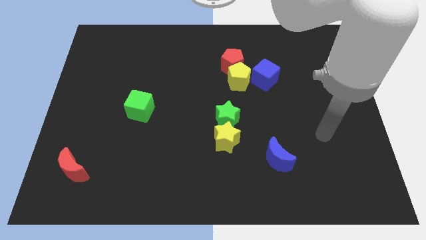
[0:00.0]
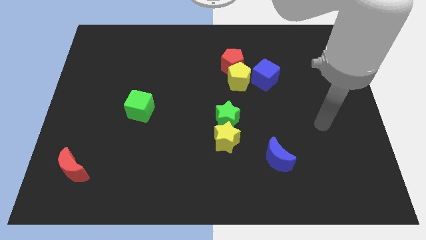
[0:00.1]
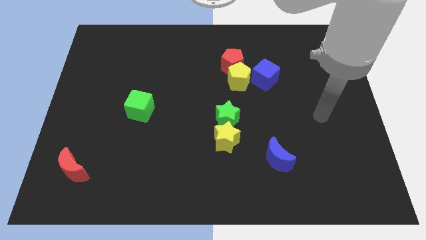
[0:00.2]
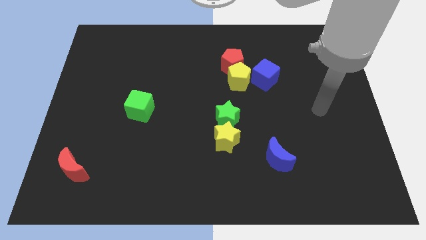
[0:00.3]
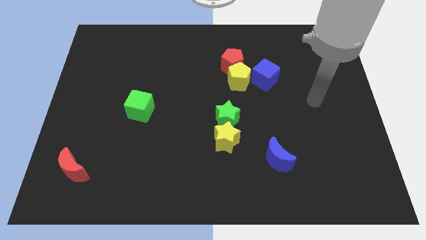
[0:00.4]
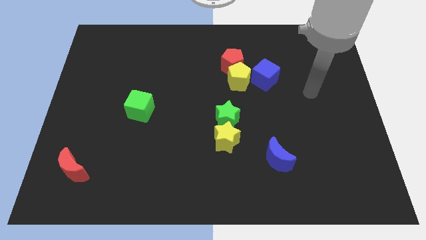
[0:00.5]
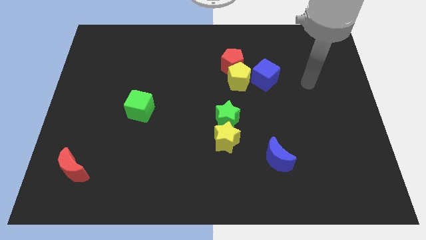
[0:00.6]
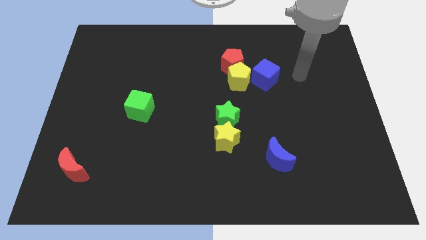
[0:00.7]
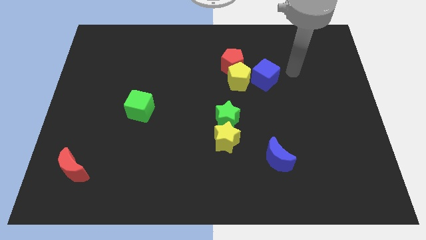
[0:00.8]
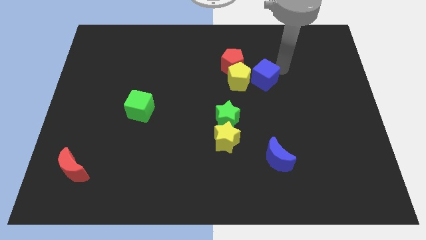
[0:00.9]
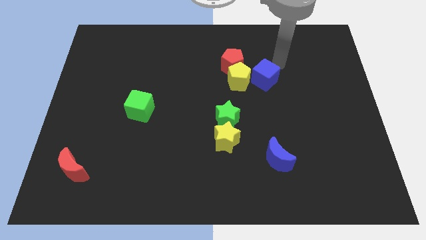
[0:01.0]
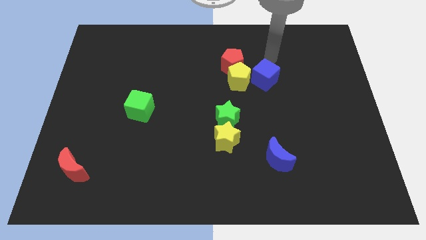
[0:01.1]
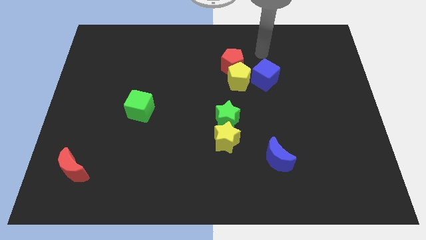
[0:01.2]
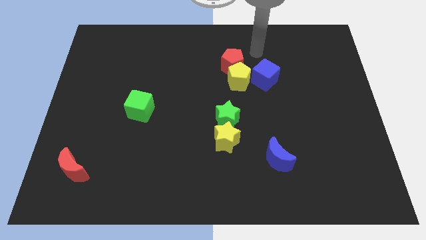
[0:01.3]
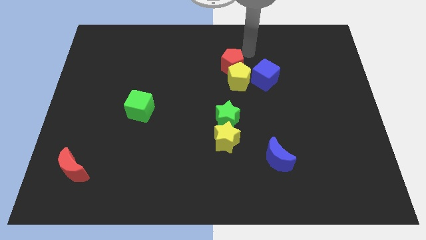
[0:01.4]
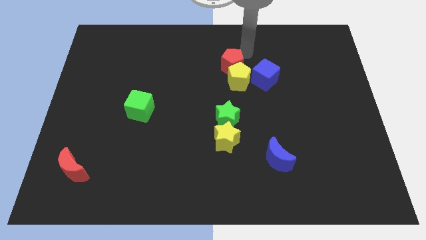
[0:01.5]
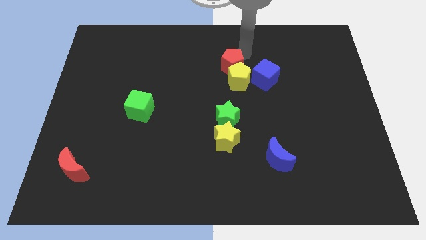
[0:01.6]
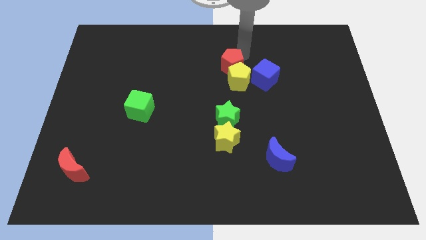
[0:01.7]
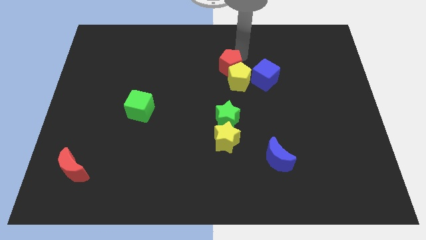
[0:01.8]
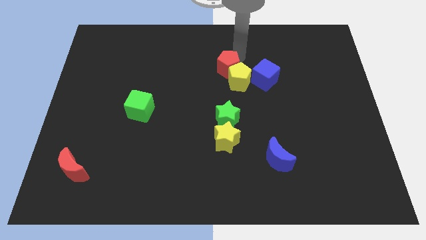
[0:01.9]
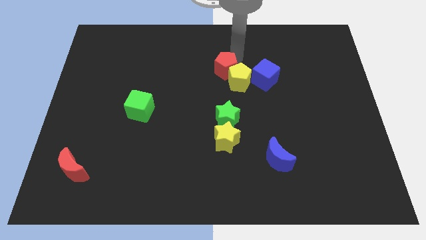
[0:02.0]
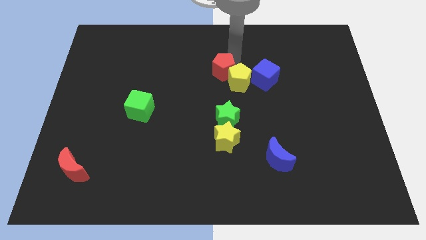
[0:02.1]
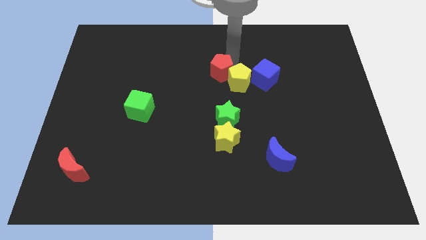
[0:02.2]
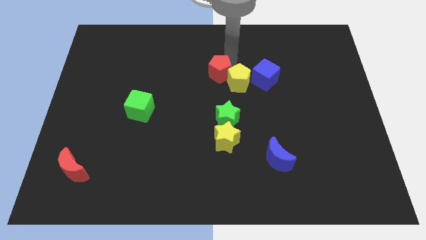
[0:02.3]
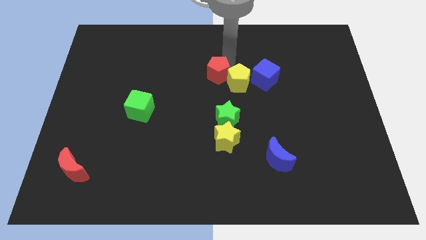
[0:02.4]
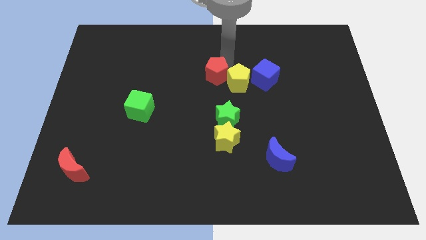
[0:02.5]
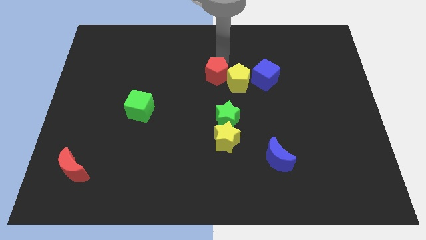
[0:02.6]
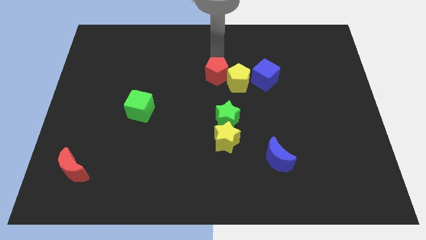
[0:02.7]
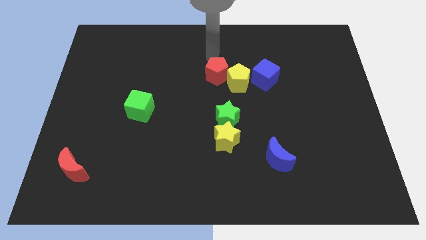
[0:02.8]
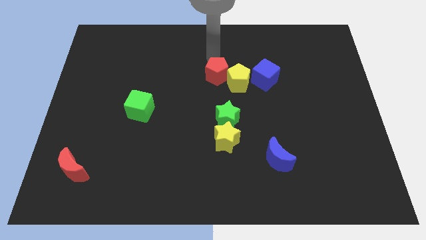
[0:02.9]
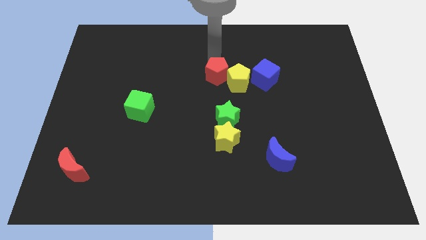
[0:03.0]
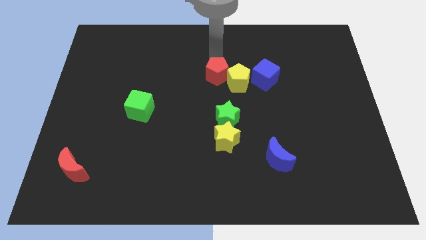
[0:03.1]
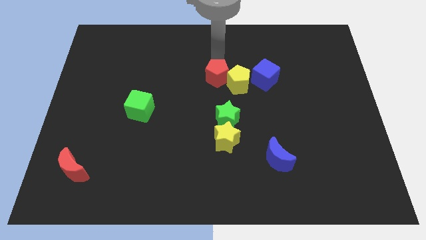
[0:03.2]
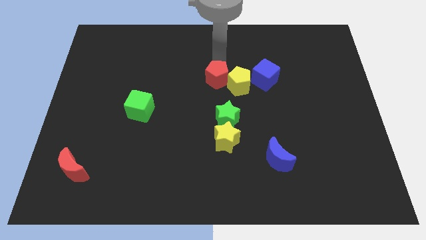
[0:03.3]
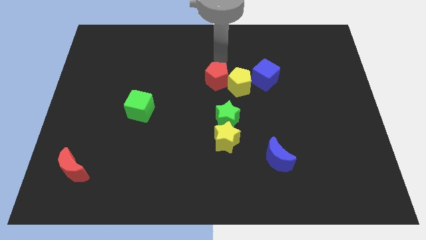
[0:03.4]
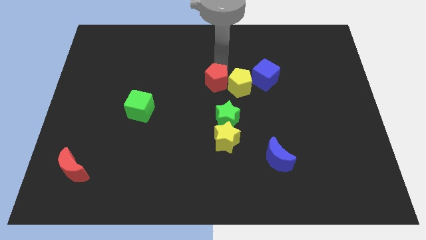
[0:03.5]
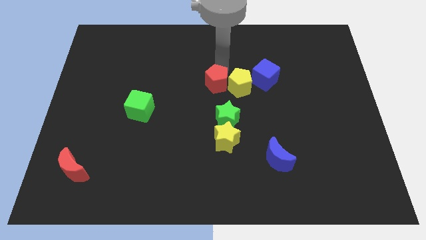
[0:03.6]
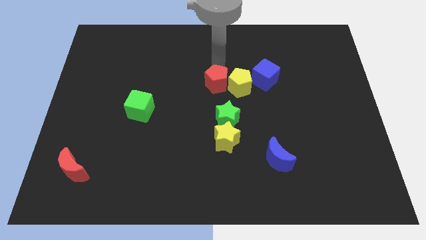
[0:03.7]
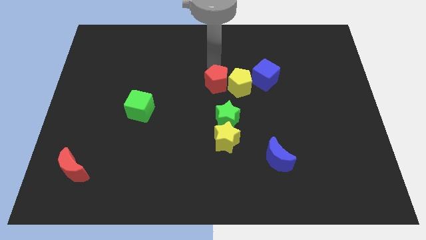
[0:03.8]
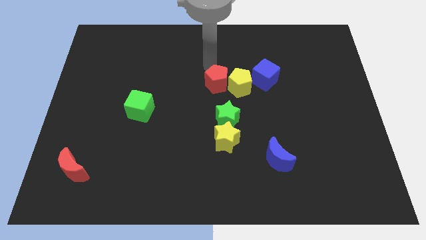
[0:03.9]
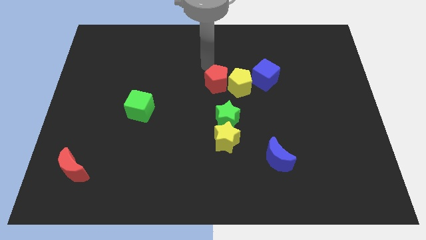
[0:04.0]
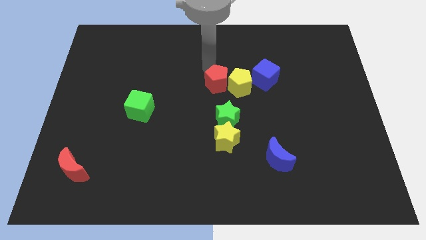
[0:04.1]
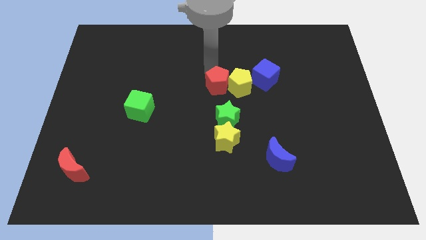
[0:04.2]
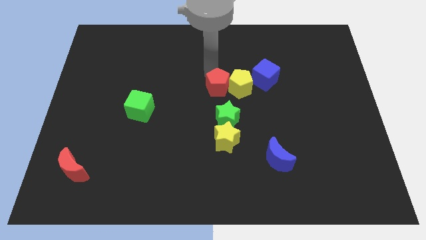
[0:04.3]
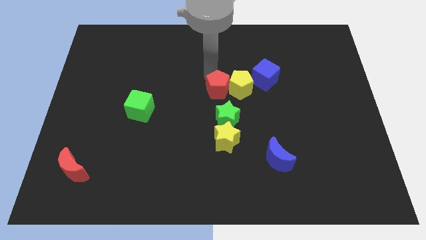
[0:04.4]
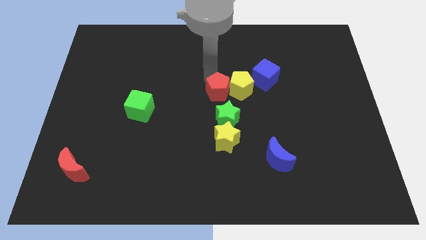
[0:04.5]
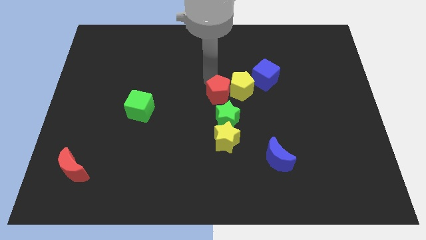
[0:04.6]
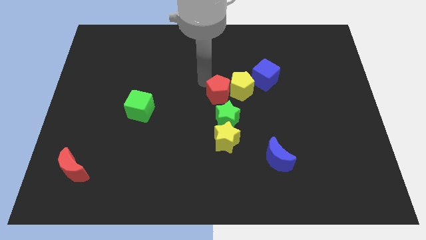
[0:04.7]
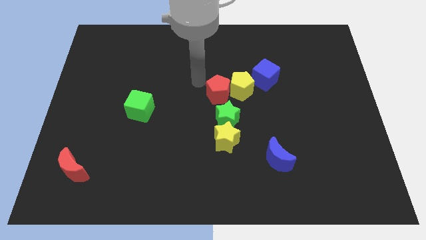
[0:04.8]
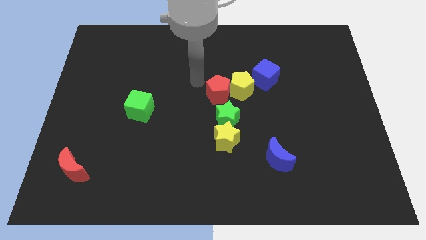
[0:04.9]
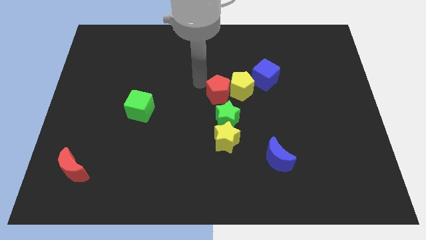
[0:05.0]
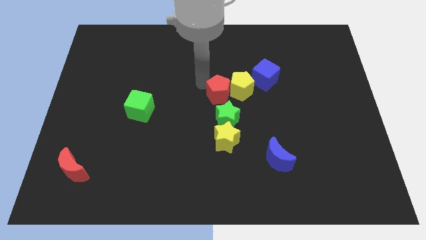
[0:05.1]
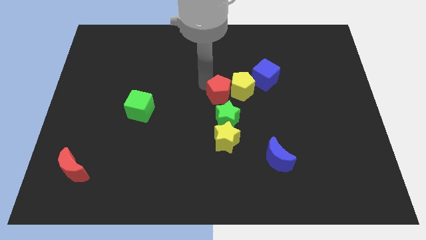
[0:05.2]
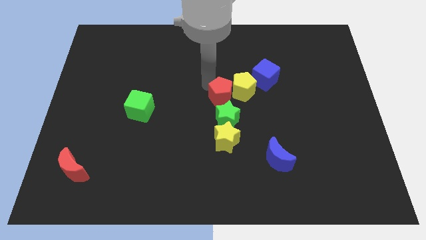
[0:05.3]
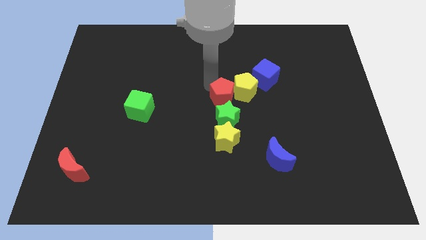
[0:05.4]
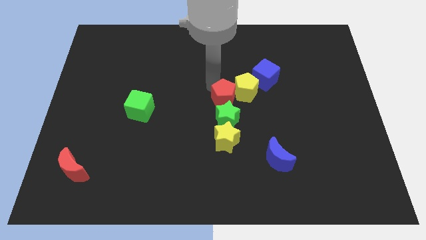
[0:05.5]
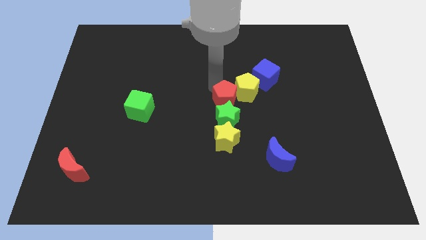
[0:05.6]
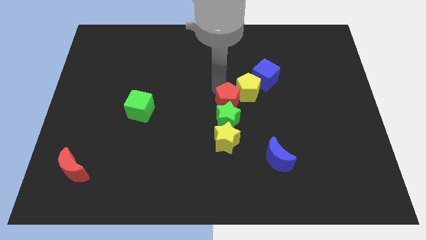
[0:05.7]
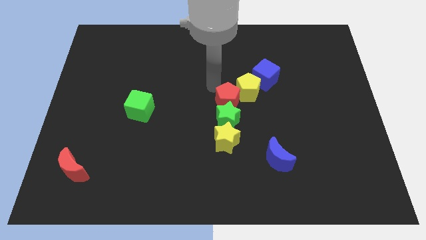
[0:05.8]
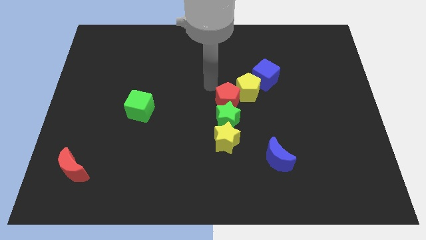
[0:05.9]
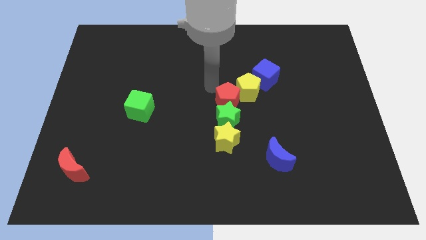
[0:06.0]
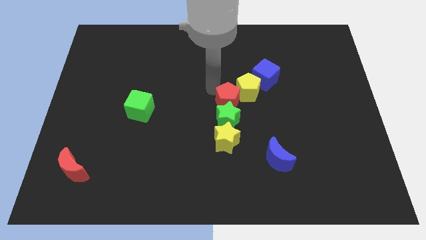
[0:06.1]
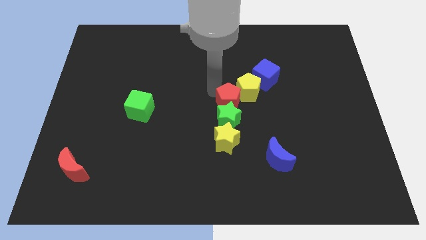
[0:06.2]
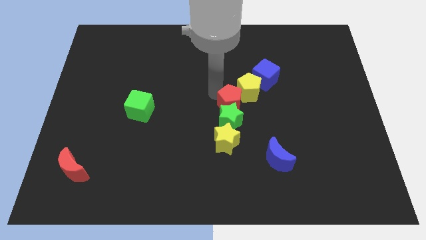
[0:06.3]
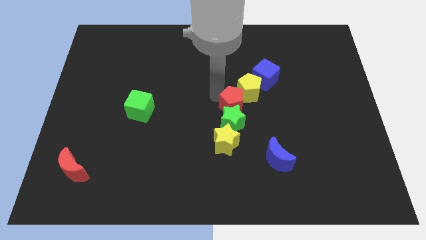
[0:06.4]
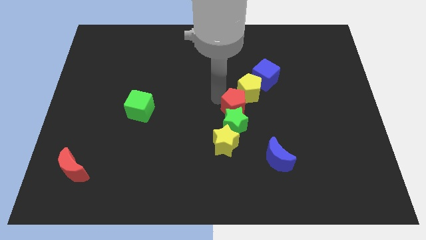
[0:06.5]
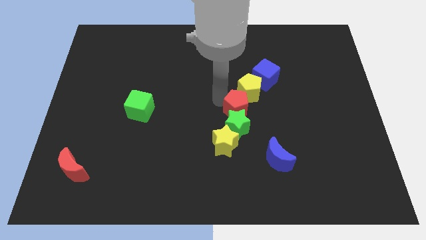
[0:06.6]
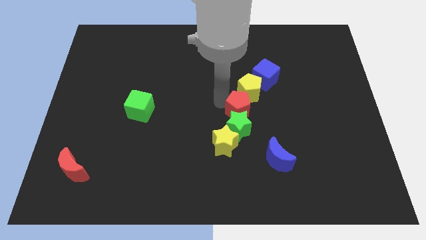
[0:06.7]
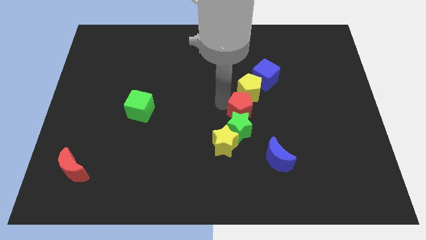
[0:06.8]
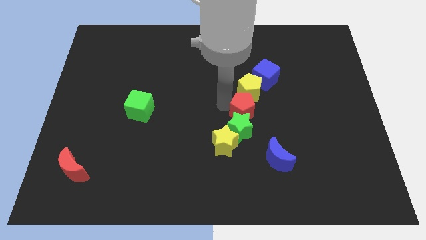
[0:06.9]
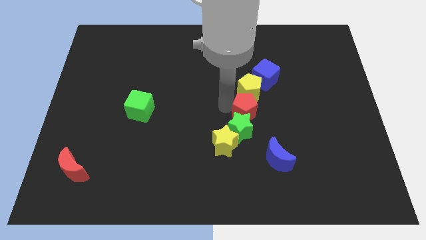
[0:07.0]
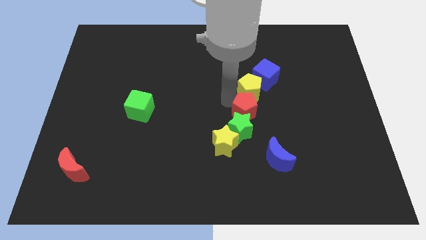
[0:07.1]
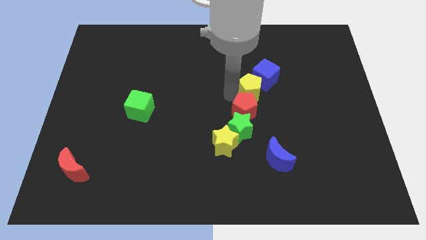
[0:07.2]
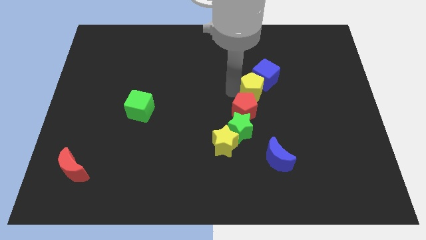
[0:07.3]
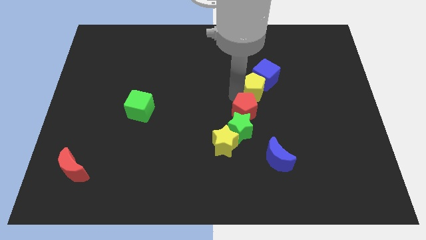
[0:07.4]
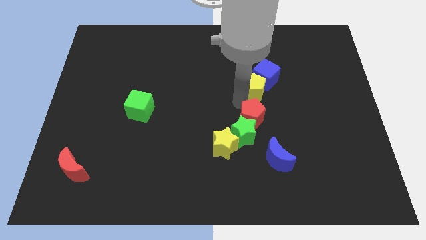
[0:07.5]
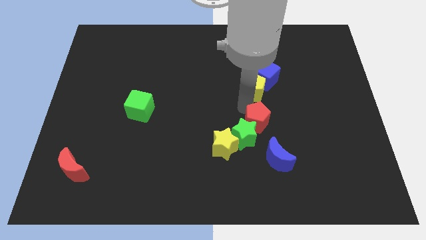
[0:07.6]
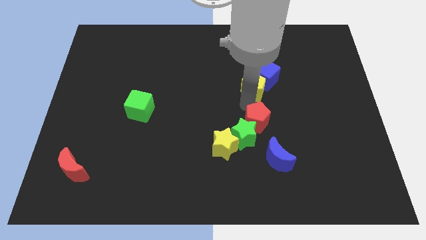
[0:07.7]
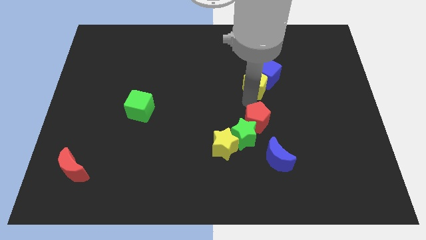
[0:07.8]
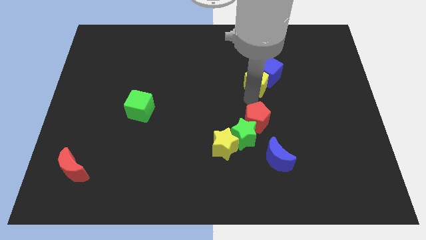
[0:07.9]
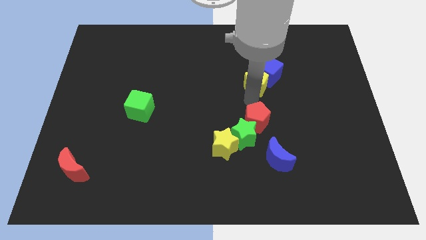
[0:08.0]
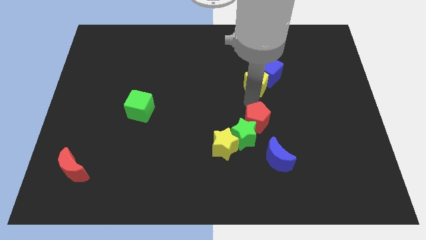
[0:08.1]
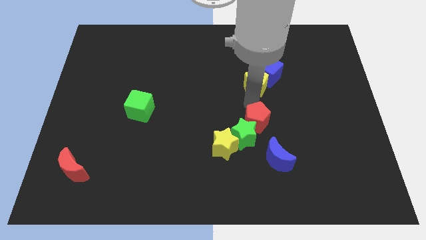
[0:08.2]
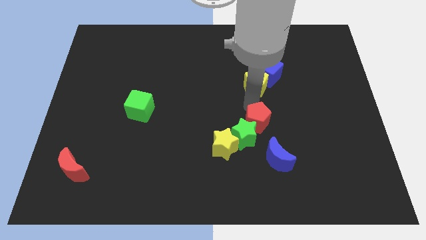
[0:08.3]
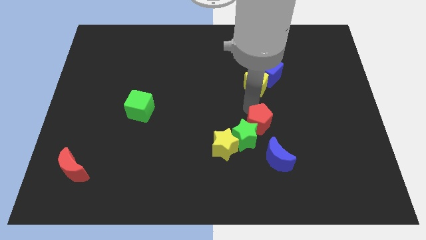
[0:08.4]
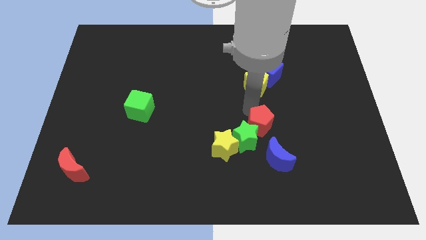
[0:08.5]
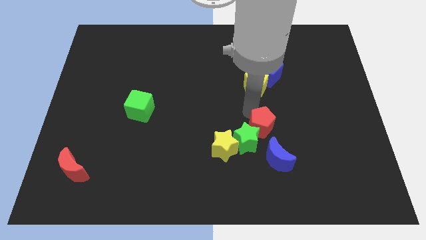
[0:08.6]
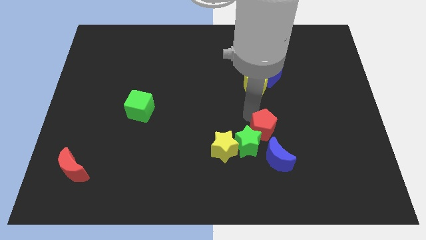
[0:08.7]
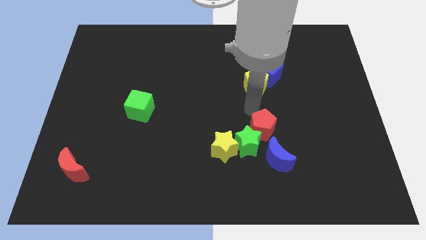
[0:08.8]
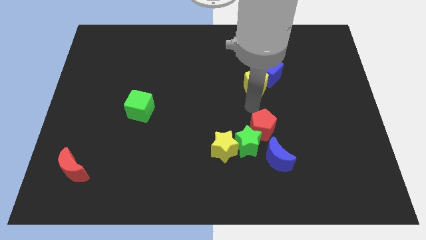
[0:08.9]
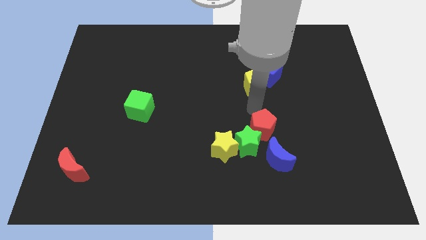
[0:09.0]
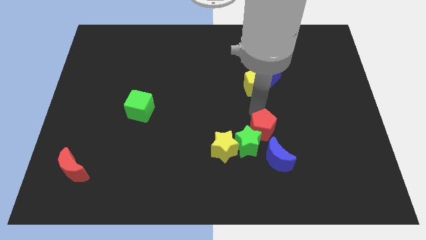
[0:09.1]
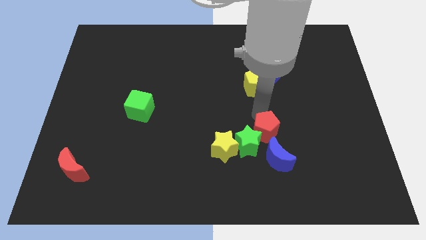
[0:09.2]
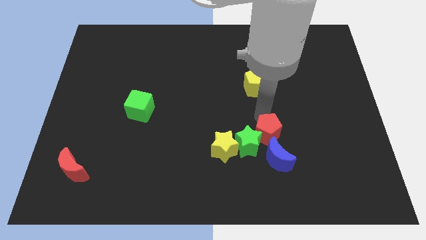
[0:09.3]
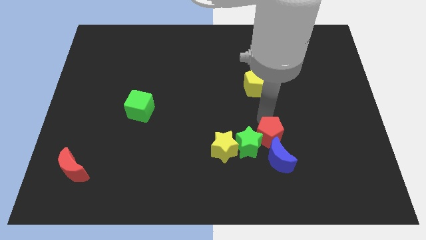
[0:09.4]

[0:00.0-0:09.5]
push the red pentagon towards the blue moon
